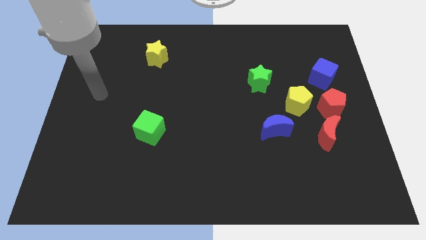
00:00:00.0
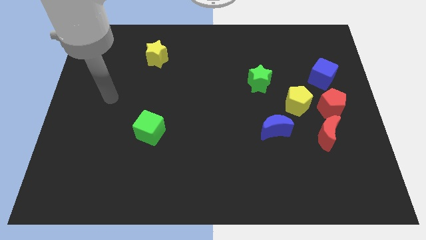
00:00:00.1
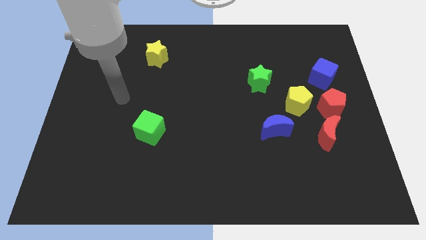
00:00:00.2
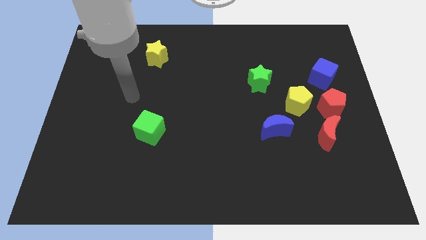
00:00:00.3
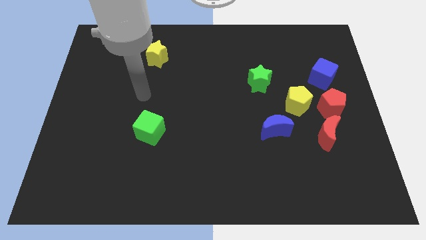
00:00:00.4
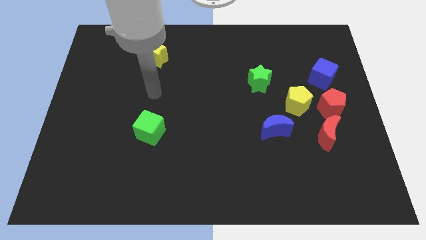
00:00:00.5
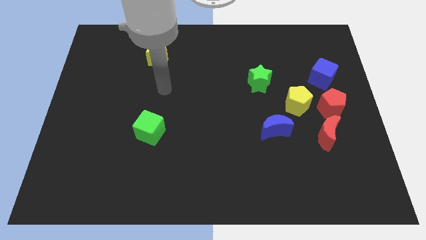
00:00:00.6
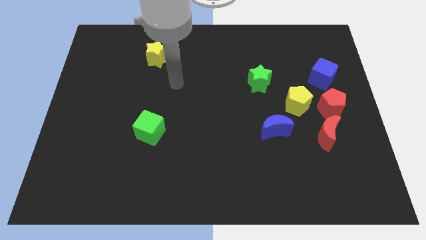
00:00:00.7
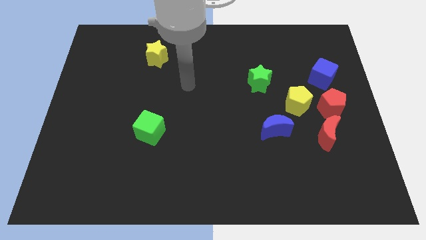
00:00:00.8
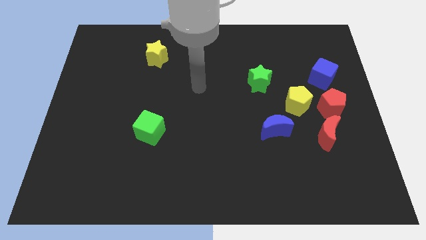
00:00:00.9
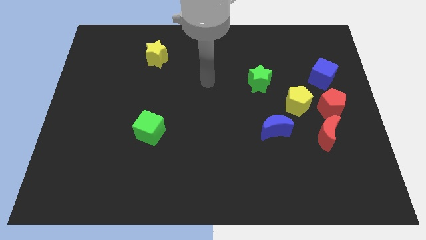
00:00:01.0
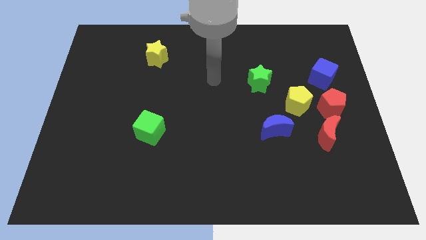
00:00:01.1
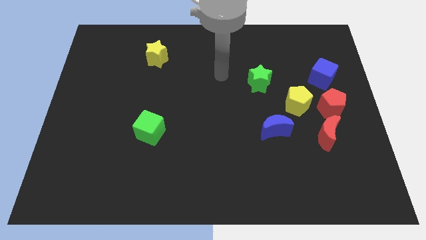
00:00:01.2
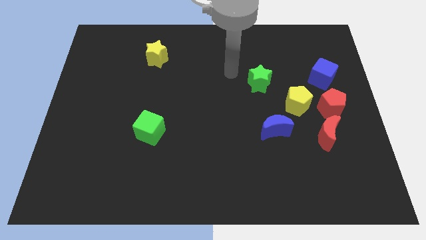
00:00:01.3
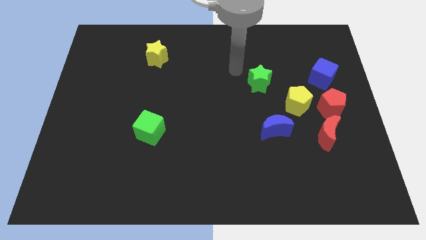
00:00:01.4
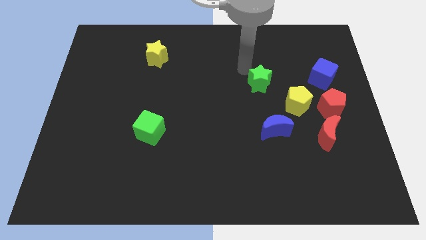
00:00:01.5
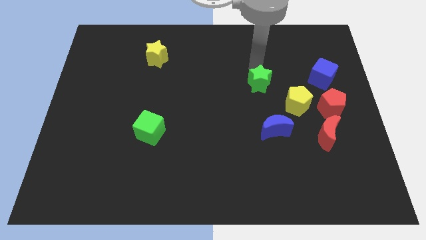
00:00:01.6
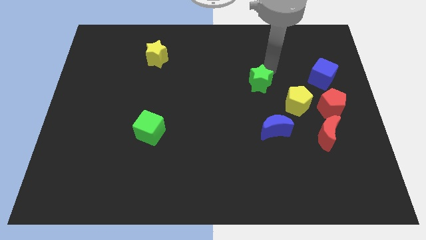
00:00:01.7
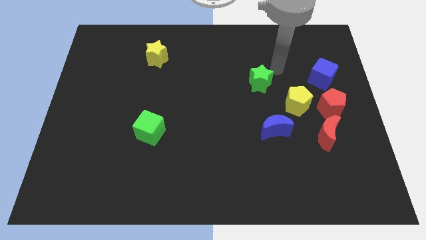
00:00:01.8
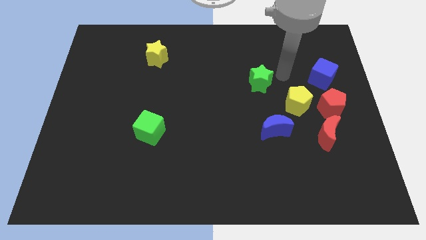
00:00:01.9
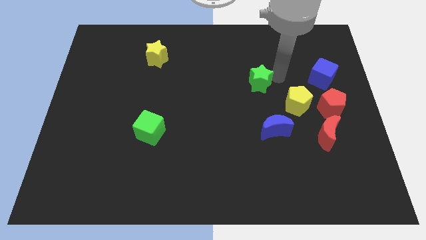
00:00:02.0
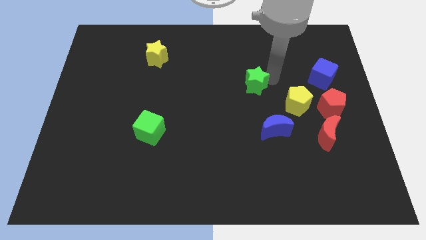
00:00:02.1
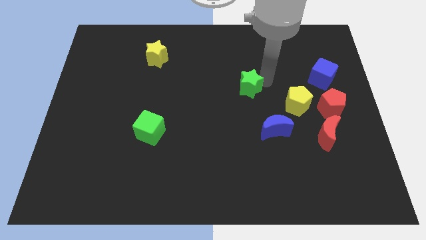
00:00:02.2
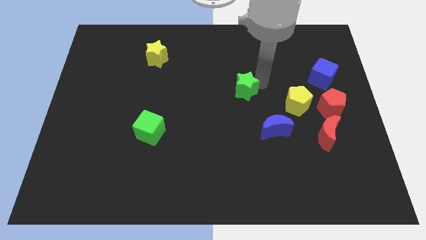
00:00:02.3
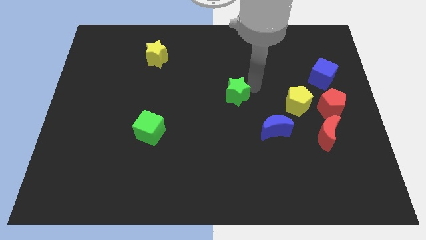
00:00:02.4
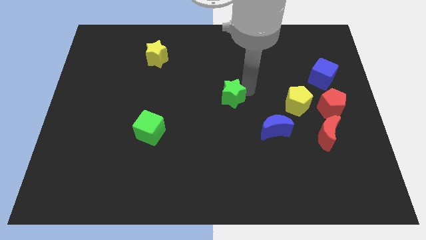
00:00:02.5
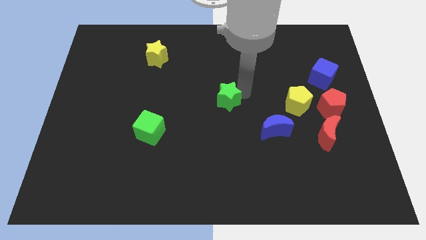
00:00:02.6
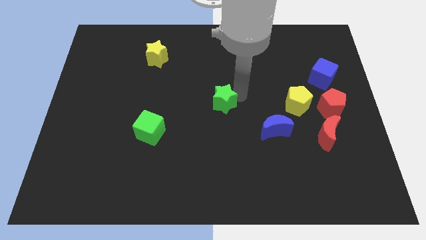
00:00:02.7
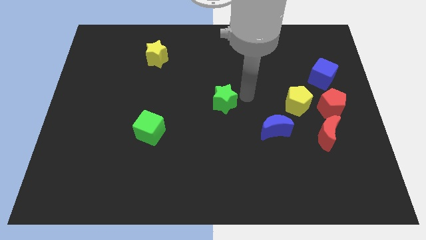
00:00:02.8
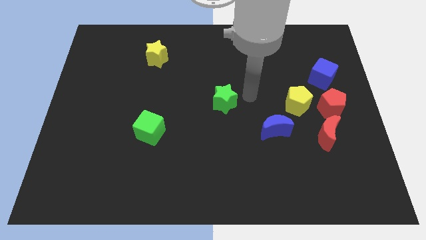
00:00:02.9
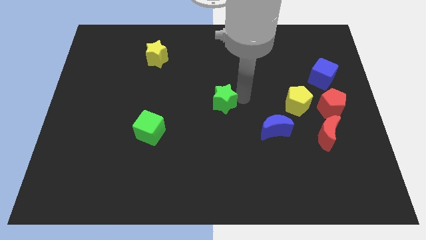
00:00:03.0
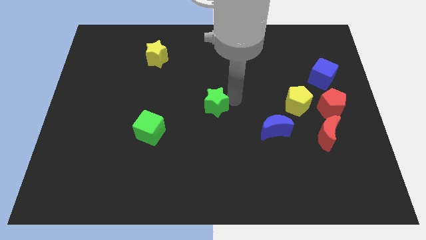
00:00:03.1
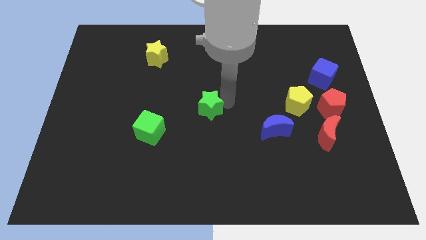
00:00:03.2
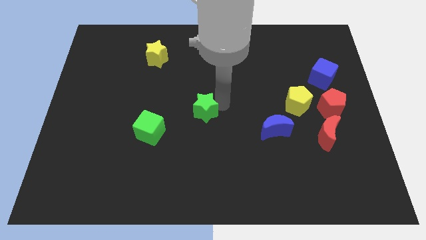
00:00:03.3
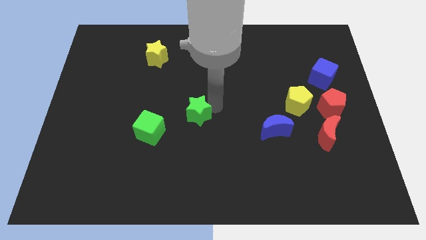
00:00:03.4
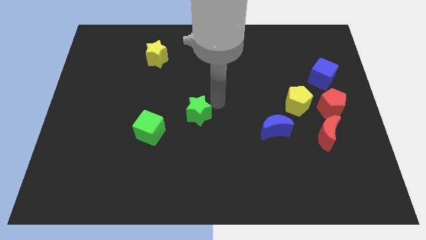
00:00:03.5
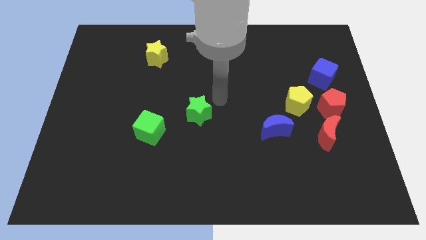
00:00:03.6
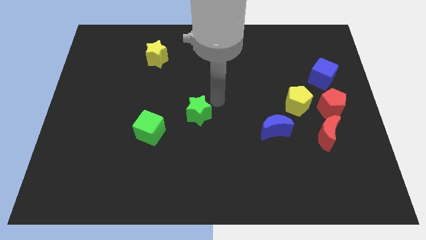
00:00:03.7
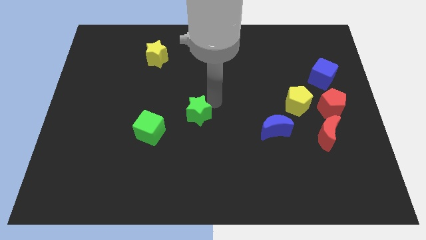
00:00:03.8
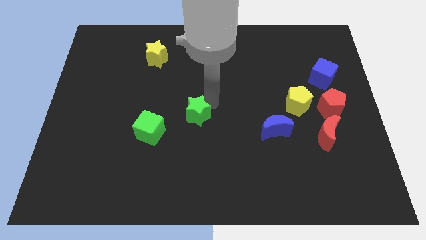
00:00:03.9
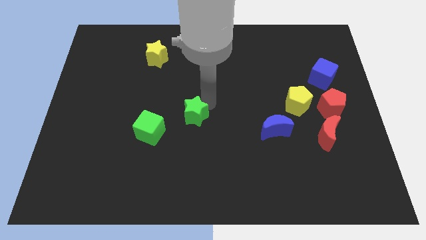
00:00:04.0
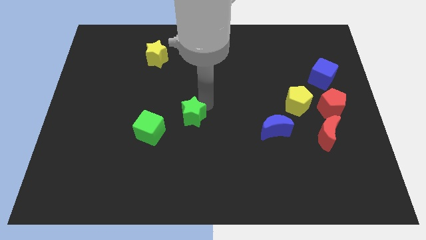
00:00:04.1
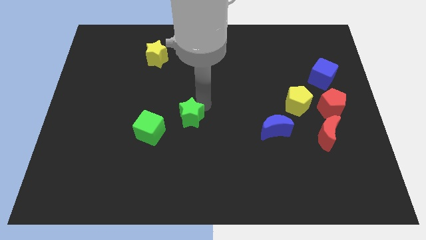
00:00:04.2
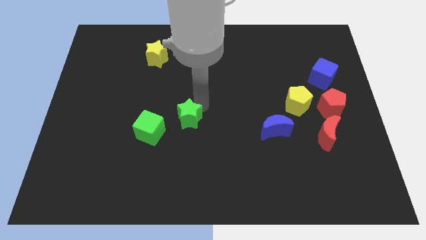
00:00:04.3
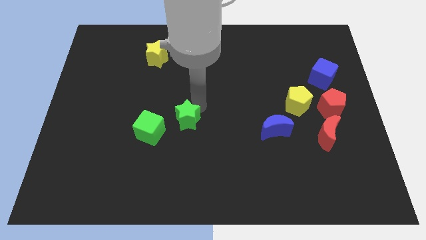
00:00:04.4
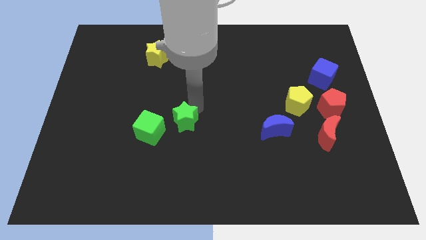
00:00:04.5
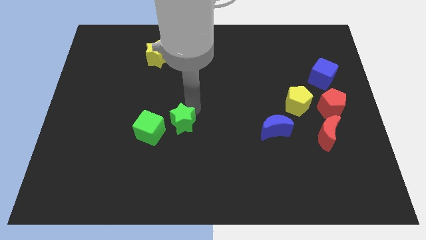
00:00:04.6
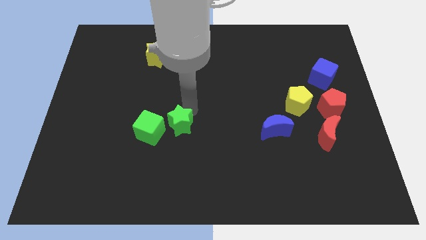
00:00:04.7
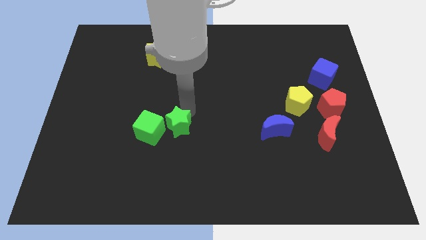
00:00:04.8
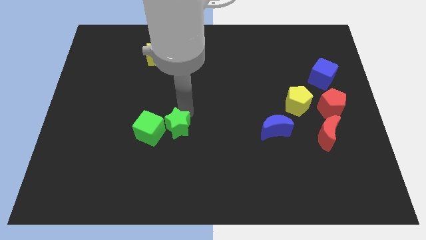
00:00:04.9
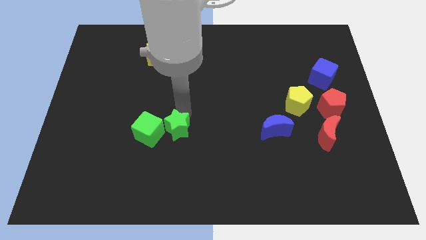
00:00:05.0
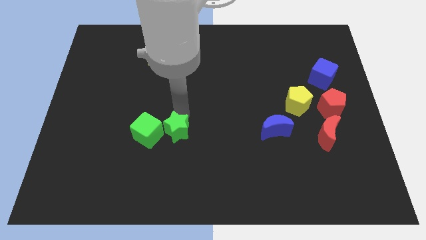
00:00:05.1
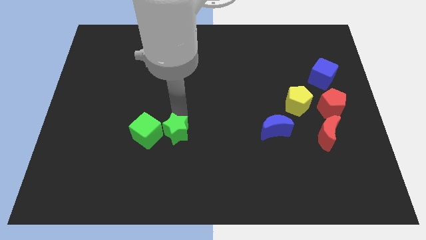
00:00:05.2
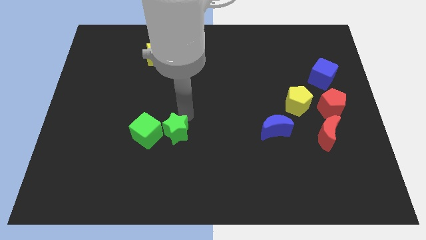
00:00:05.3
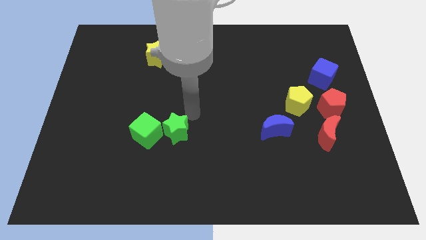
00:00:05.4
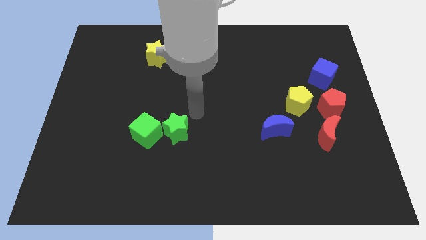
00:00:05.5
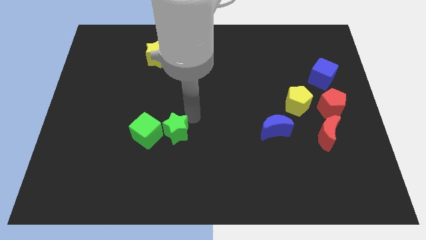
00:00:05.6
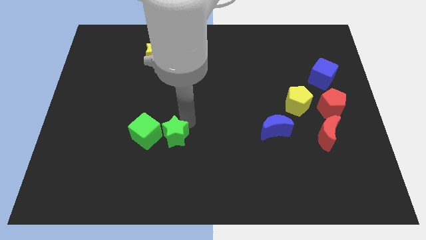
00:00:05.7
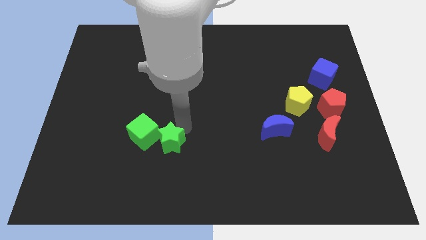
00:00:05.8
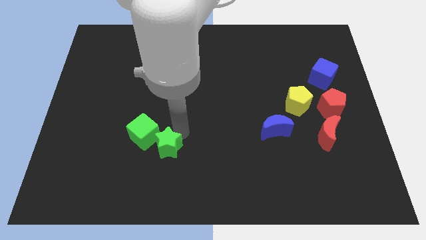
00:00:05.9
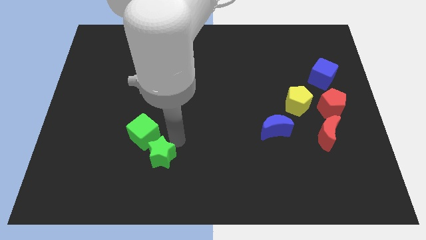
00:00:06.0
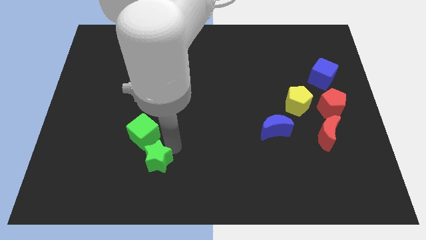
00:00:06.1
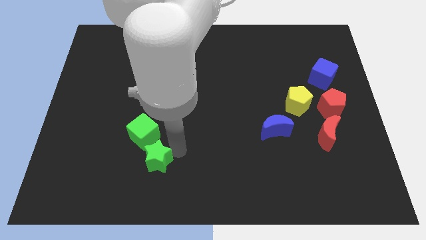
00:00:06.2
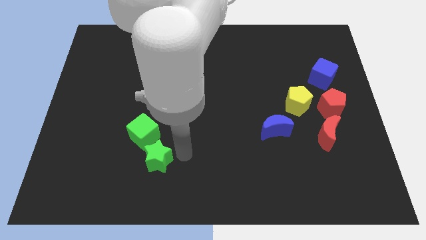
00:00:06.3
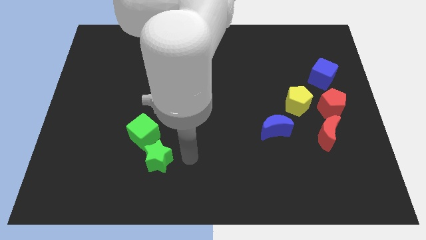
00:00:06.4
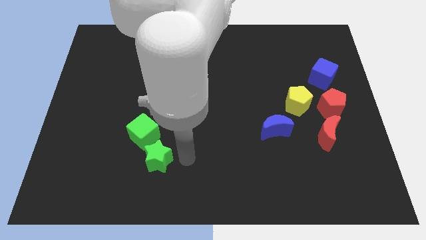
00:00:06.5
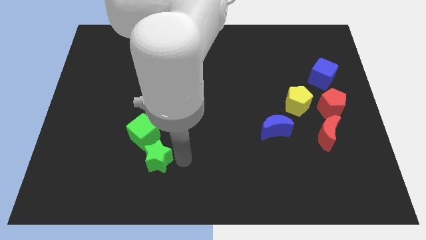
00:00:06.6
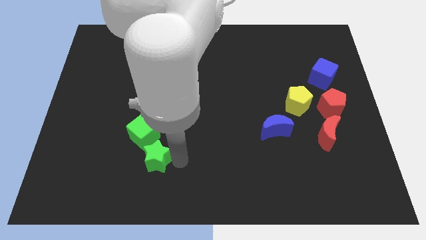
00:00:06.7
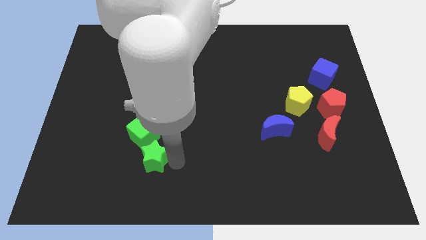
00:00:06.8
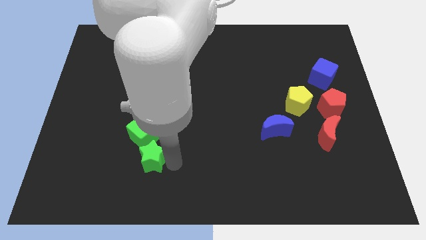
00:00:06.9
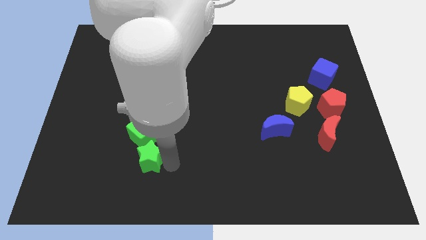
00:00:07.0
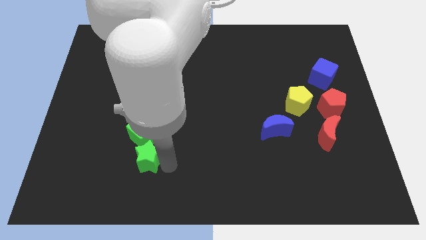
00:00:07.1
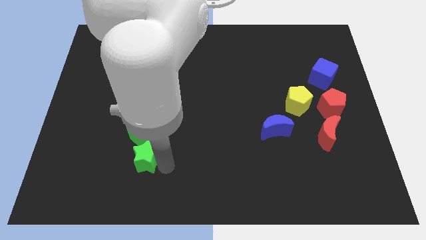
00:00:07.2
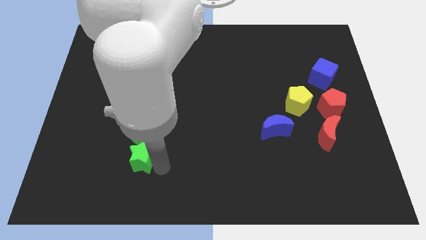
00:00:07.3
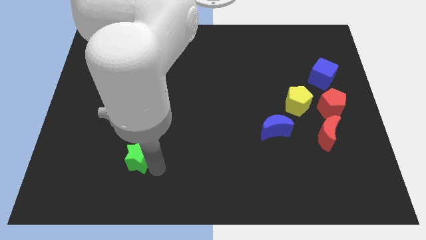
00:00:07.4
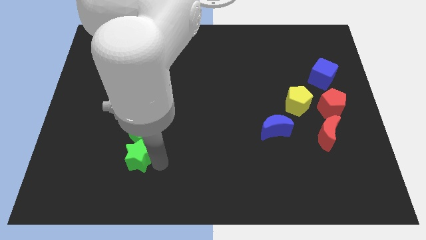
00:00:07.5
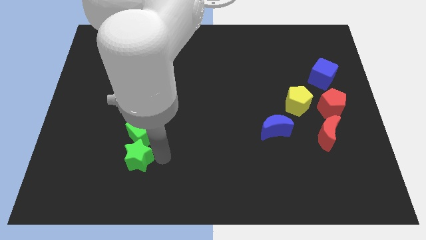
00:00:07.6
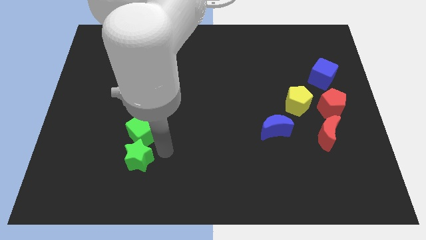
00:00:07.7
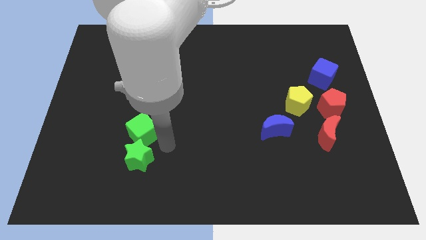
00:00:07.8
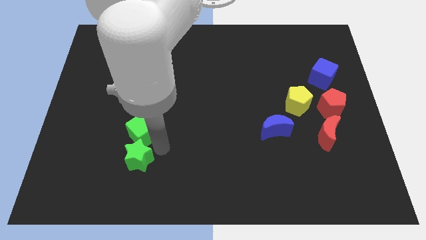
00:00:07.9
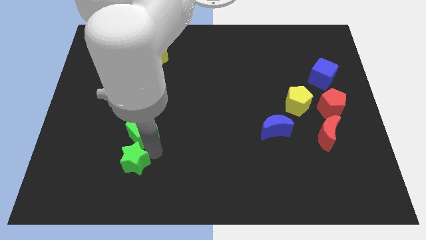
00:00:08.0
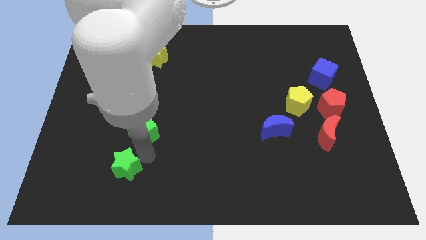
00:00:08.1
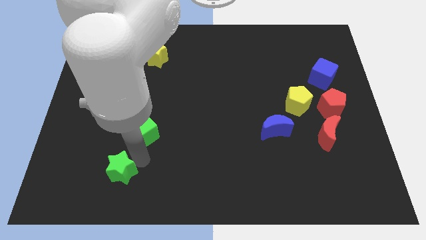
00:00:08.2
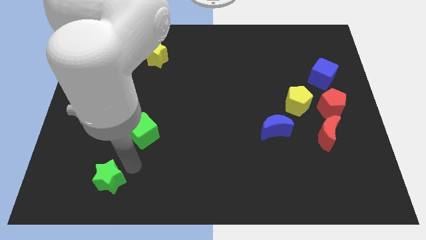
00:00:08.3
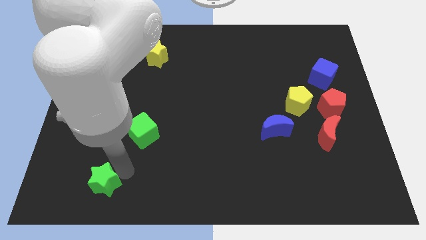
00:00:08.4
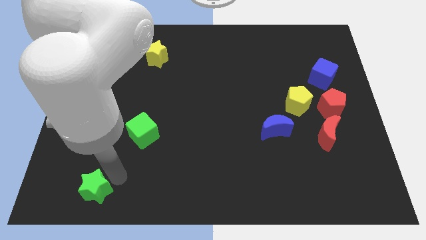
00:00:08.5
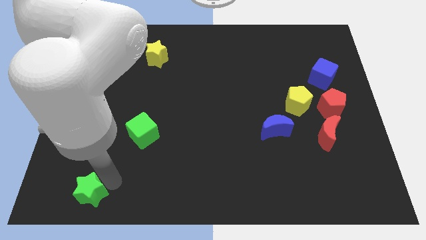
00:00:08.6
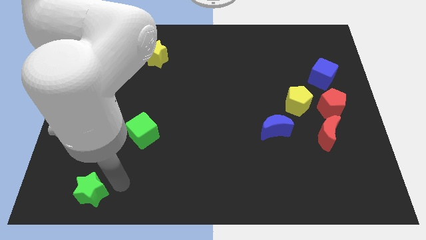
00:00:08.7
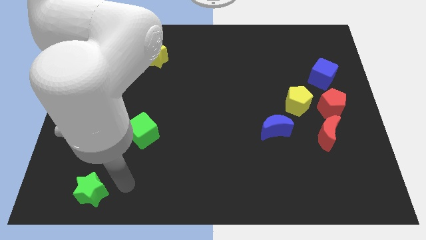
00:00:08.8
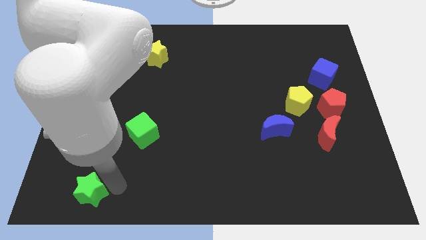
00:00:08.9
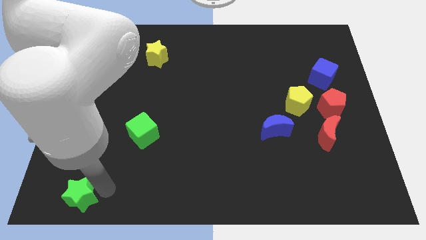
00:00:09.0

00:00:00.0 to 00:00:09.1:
slide the green star to the bottom left
